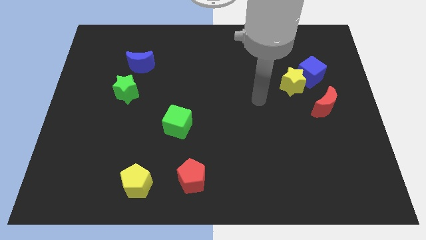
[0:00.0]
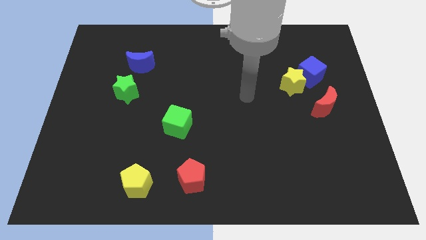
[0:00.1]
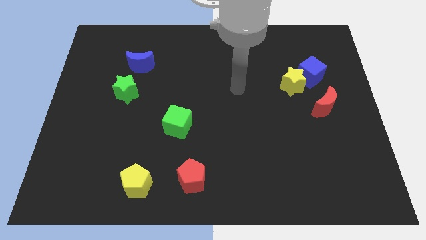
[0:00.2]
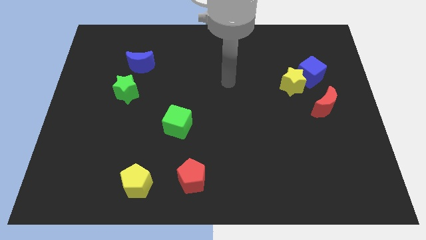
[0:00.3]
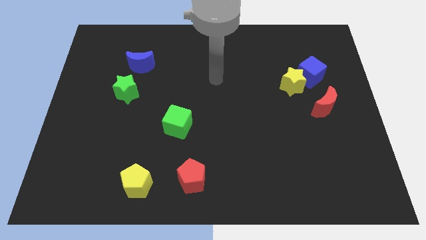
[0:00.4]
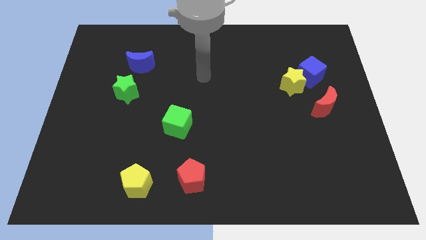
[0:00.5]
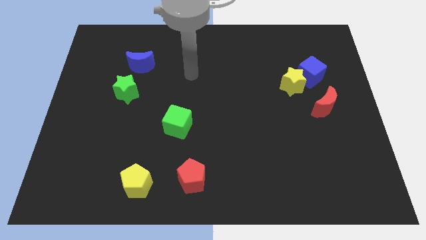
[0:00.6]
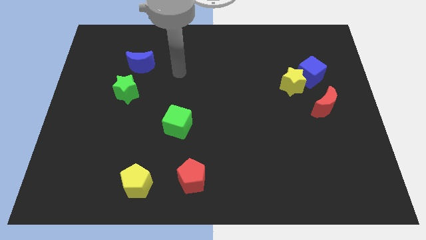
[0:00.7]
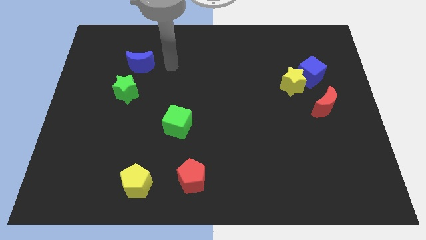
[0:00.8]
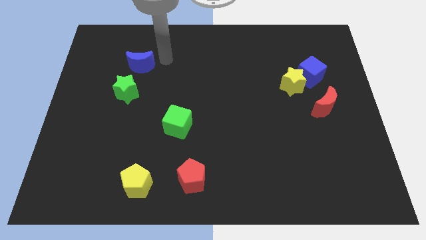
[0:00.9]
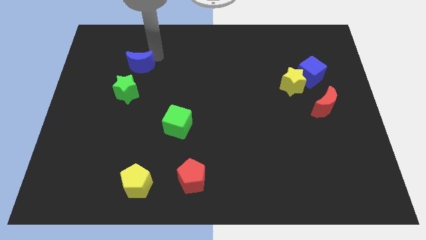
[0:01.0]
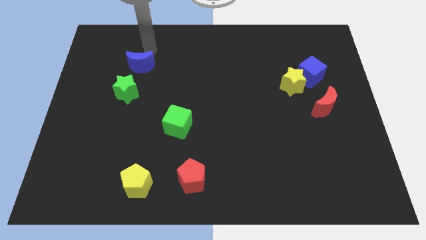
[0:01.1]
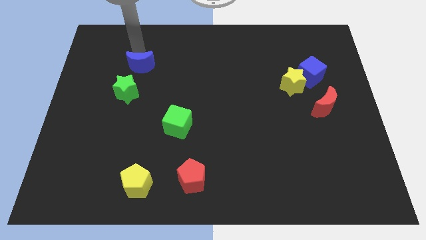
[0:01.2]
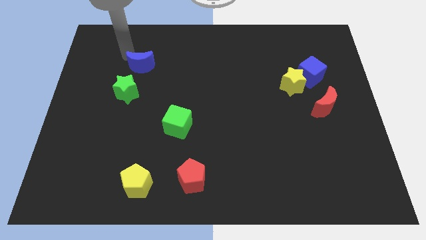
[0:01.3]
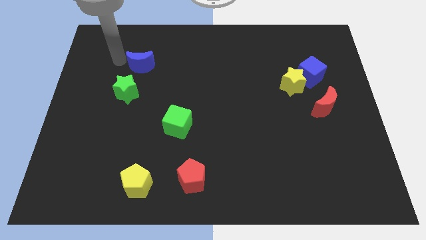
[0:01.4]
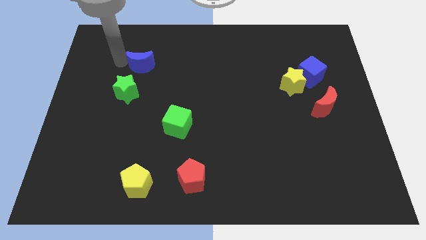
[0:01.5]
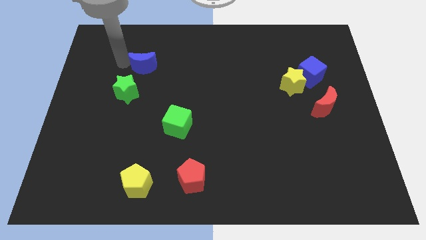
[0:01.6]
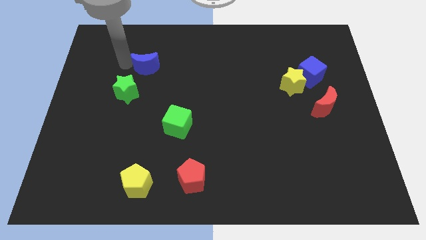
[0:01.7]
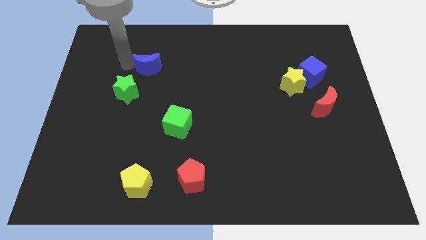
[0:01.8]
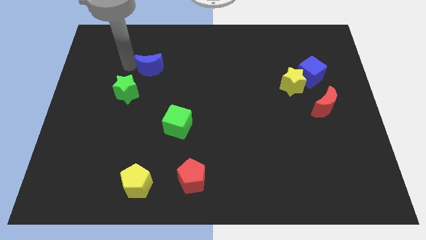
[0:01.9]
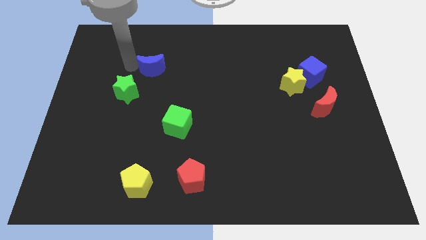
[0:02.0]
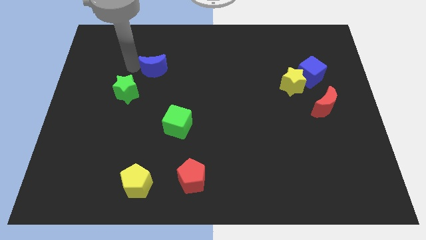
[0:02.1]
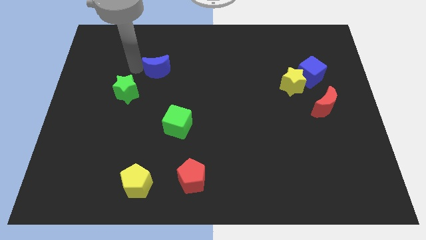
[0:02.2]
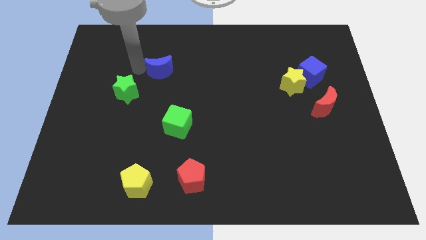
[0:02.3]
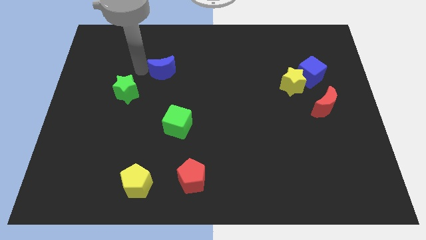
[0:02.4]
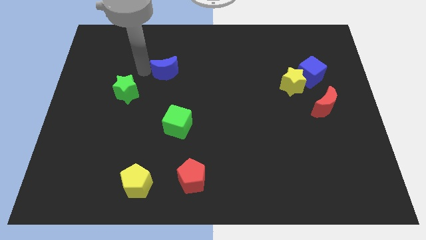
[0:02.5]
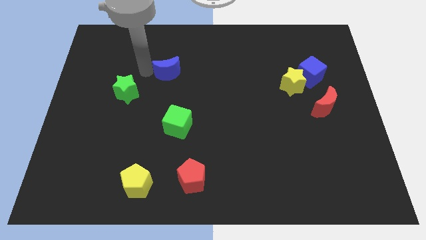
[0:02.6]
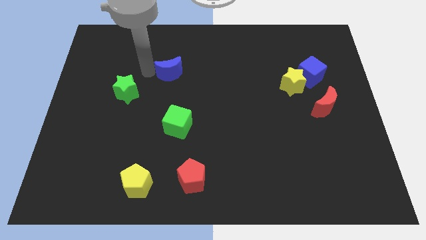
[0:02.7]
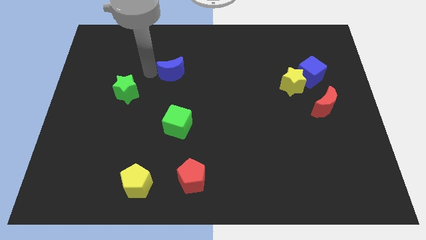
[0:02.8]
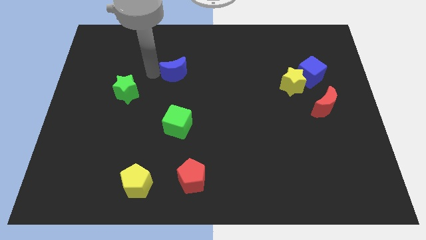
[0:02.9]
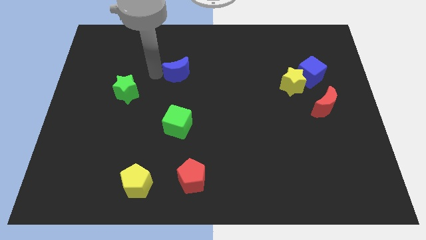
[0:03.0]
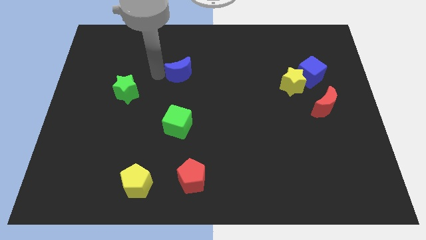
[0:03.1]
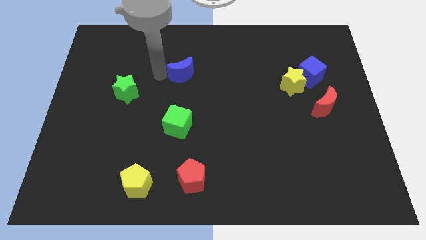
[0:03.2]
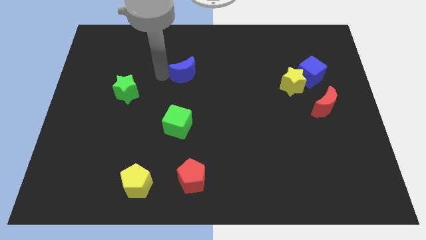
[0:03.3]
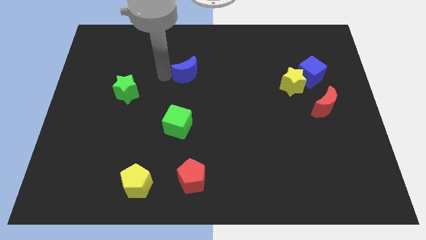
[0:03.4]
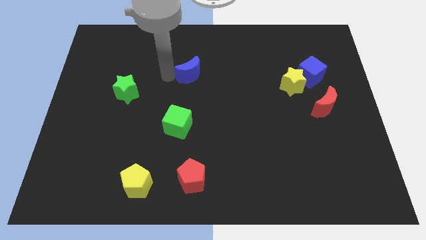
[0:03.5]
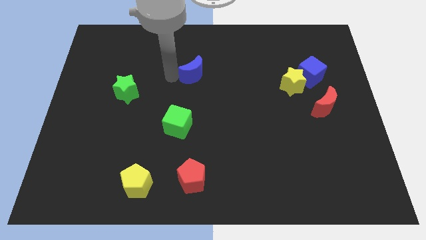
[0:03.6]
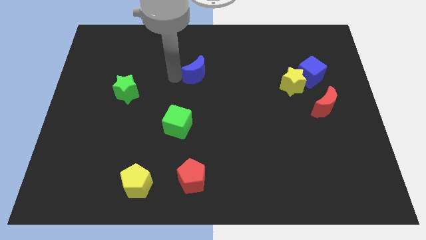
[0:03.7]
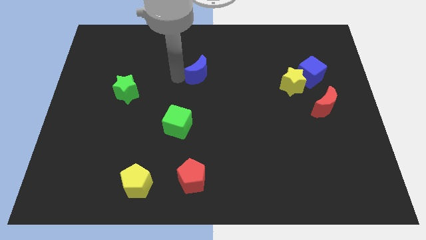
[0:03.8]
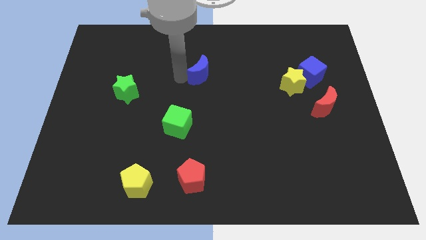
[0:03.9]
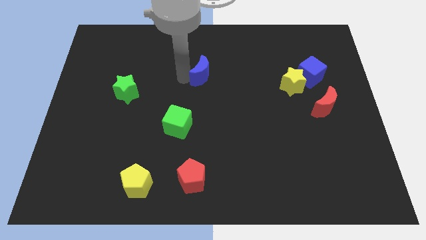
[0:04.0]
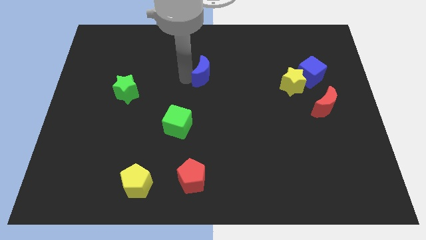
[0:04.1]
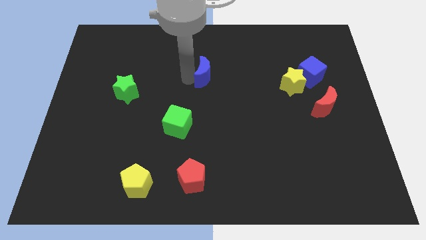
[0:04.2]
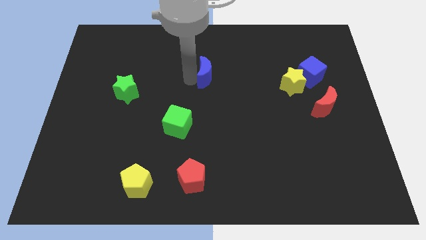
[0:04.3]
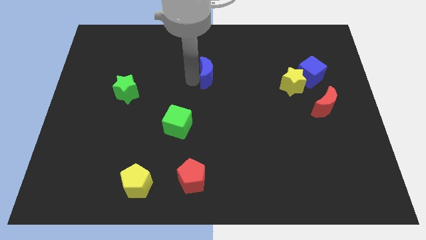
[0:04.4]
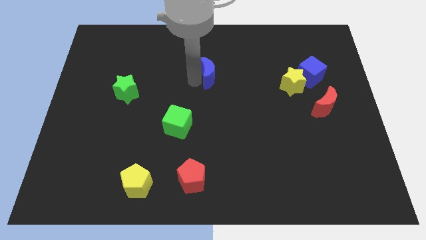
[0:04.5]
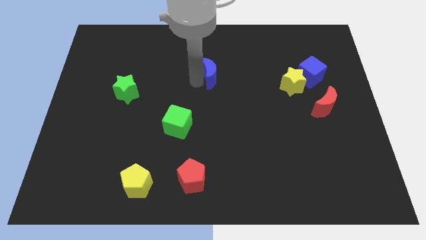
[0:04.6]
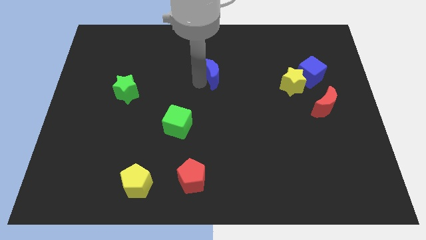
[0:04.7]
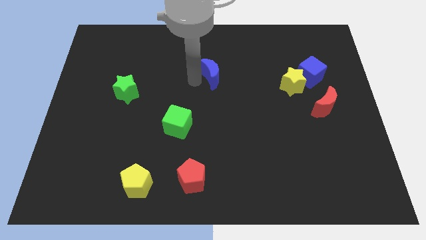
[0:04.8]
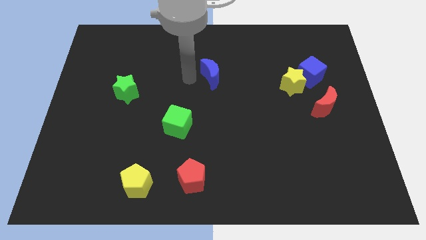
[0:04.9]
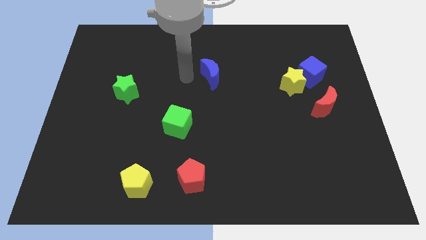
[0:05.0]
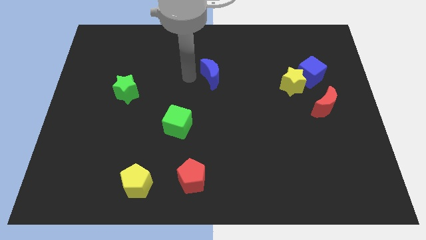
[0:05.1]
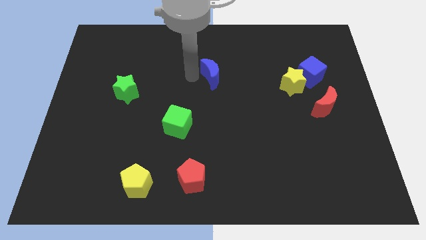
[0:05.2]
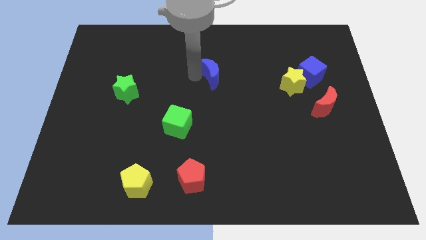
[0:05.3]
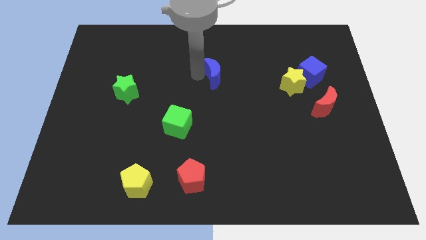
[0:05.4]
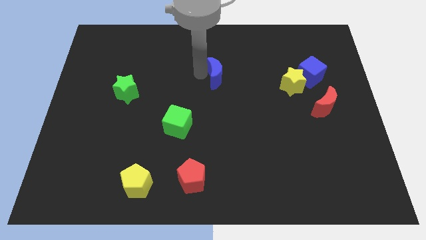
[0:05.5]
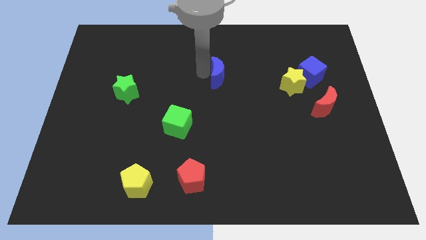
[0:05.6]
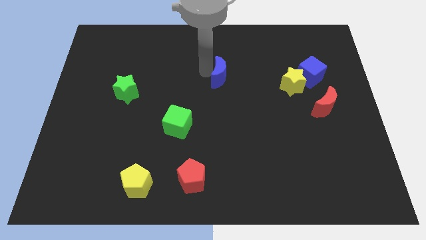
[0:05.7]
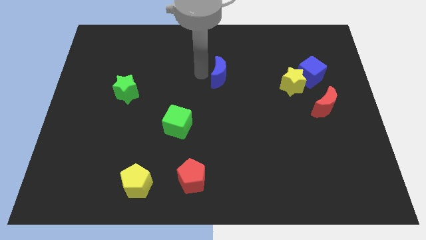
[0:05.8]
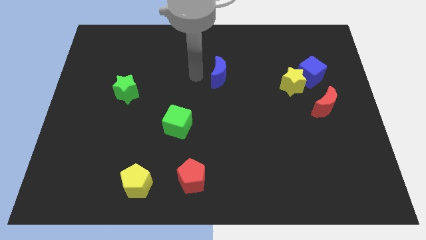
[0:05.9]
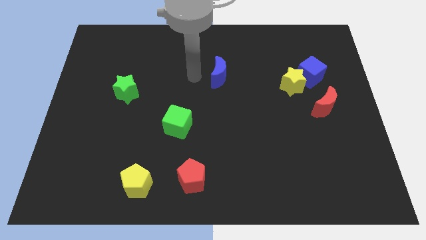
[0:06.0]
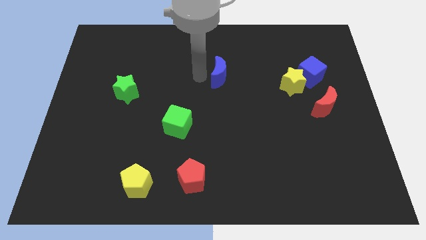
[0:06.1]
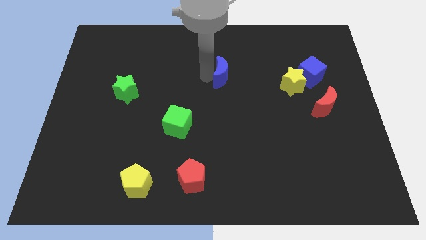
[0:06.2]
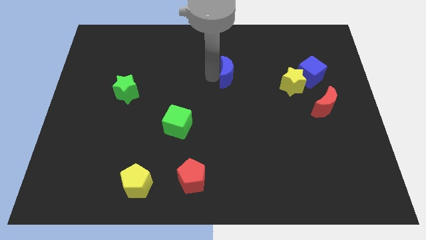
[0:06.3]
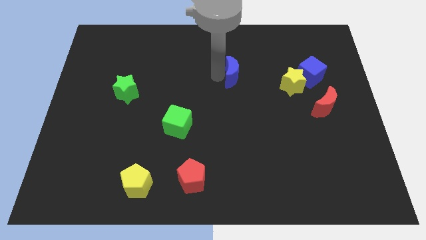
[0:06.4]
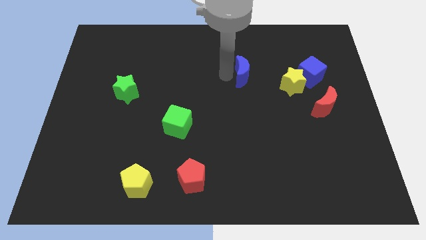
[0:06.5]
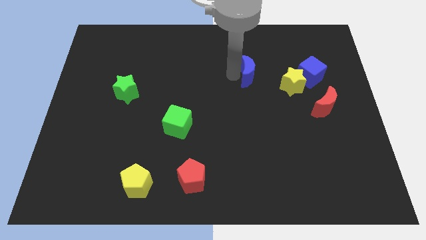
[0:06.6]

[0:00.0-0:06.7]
push the blue moon to the left side of the blue cube

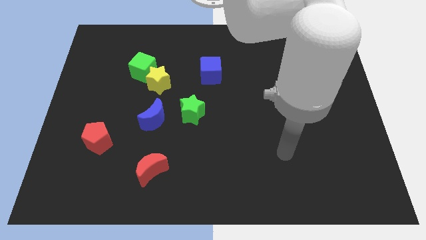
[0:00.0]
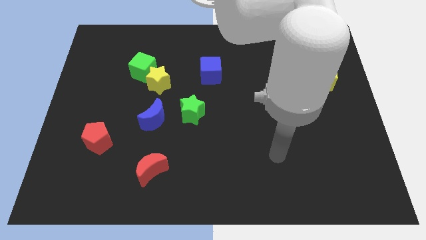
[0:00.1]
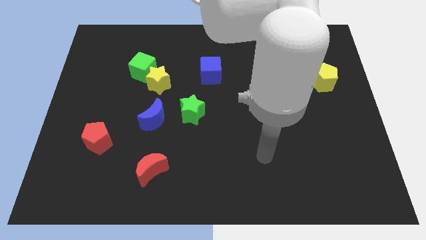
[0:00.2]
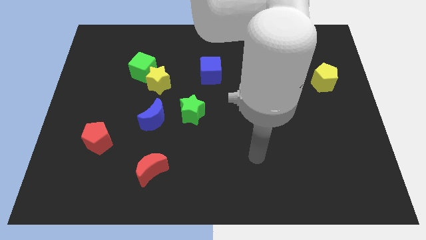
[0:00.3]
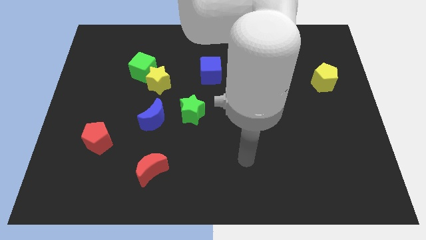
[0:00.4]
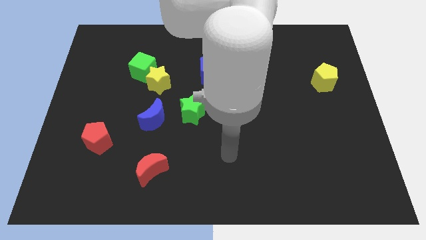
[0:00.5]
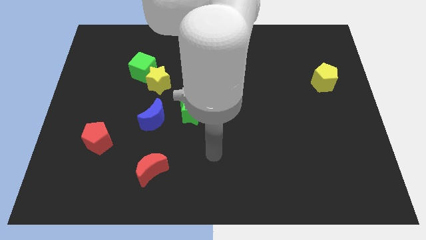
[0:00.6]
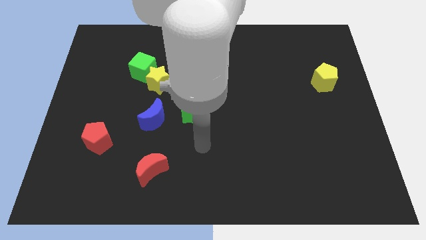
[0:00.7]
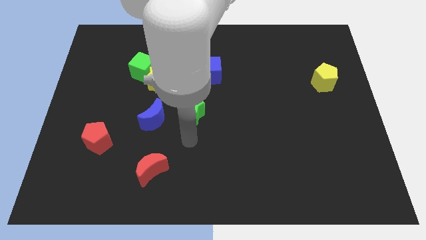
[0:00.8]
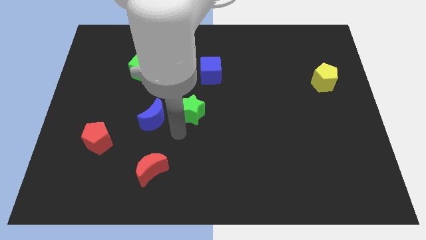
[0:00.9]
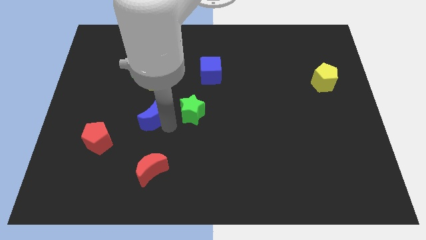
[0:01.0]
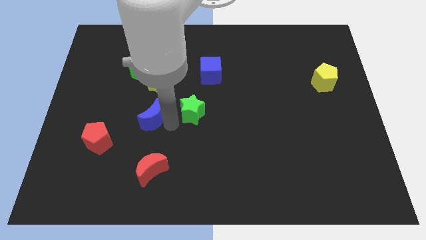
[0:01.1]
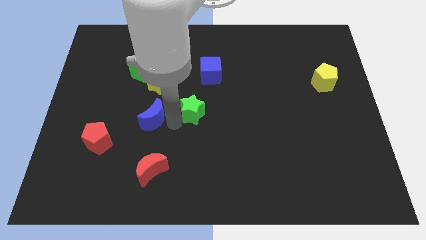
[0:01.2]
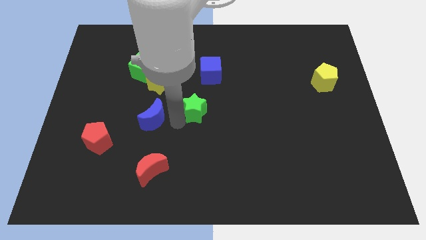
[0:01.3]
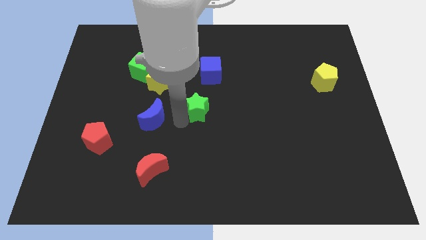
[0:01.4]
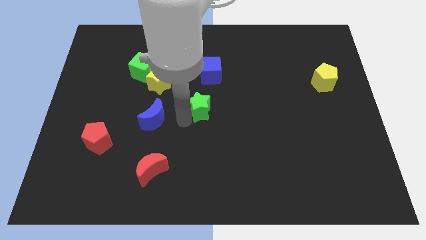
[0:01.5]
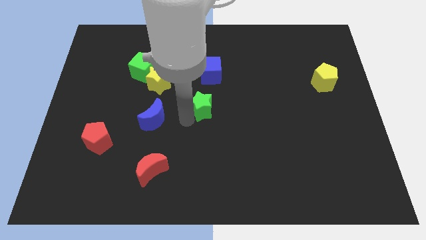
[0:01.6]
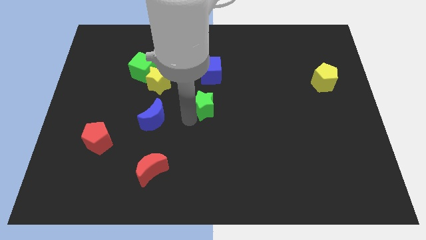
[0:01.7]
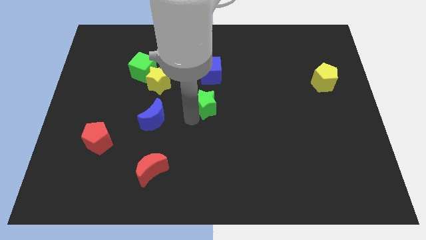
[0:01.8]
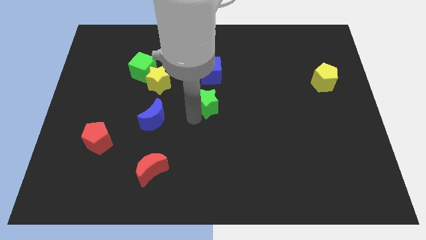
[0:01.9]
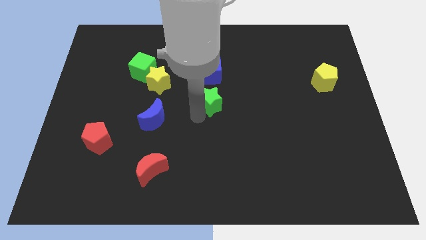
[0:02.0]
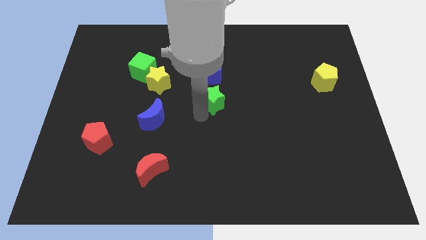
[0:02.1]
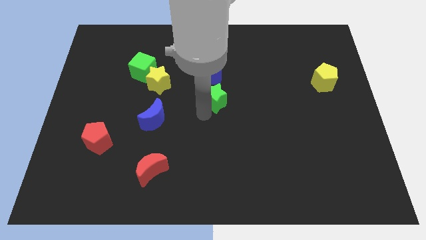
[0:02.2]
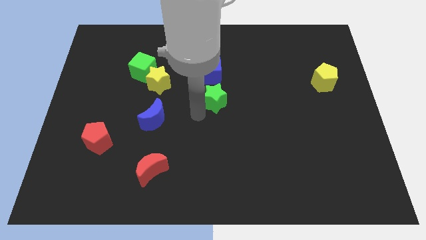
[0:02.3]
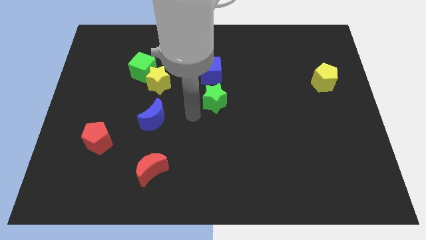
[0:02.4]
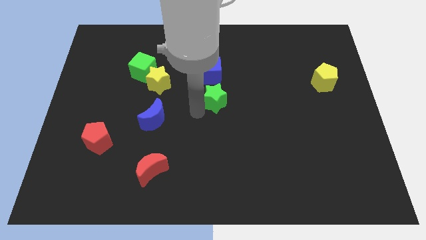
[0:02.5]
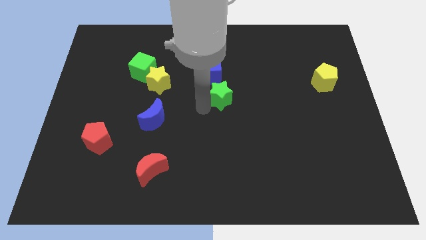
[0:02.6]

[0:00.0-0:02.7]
put the green star to the bottom right of the blue cube
